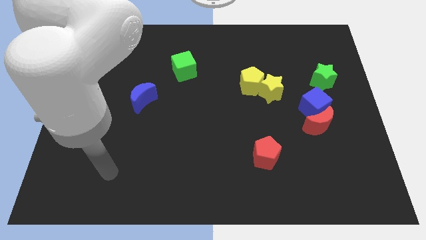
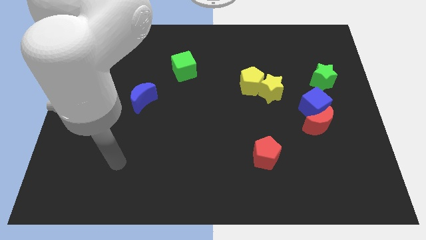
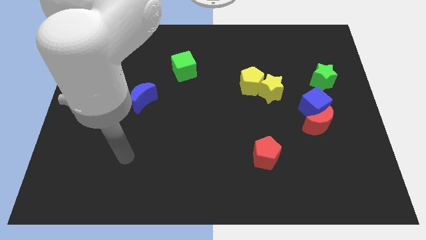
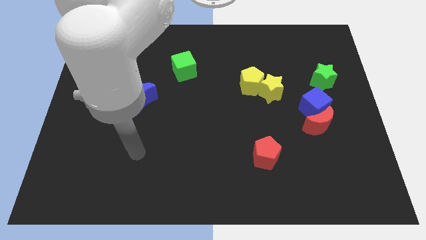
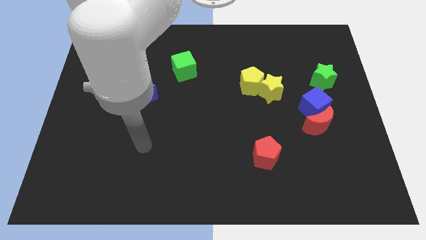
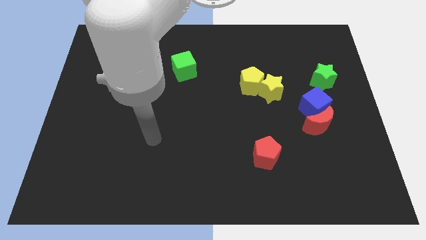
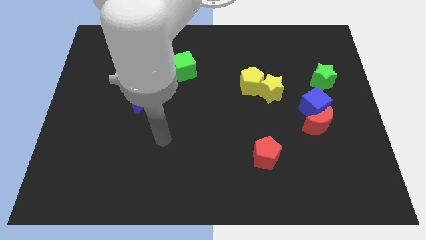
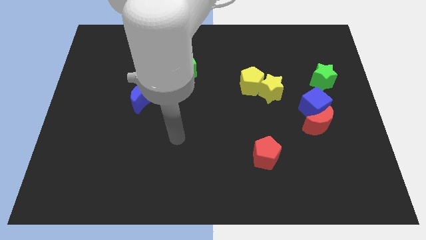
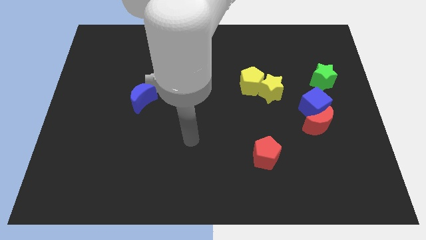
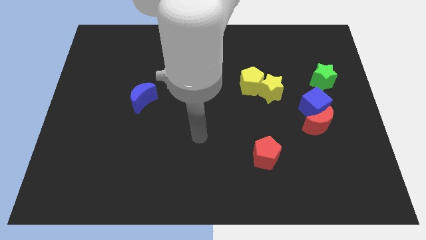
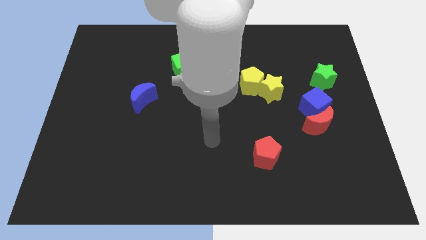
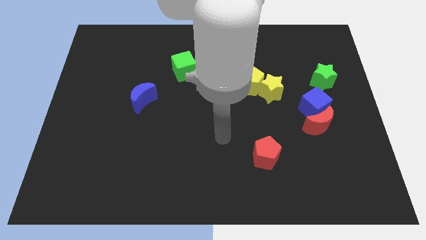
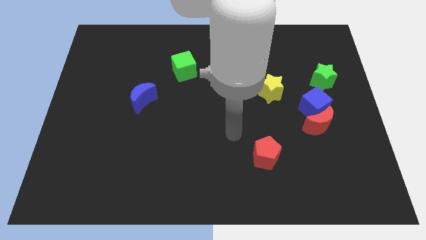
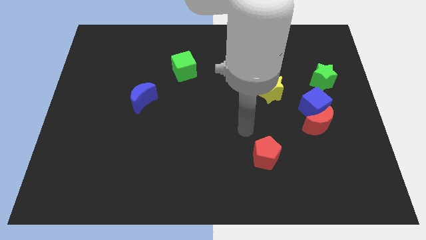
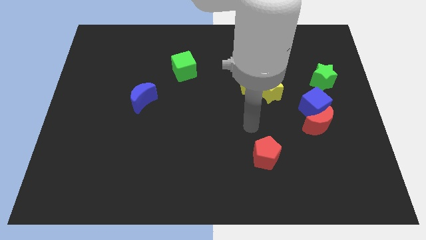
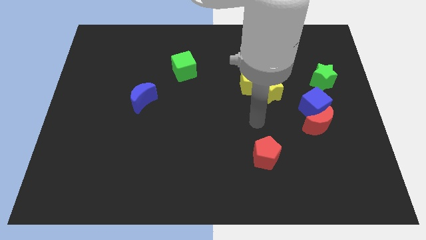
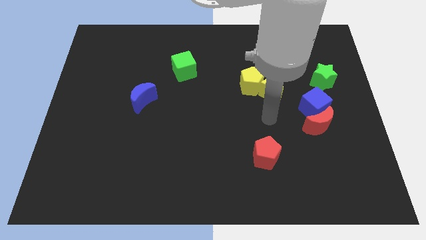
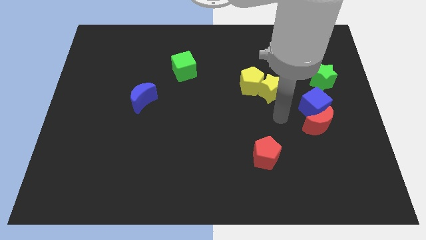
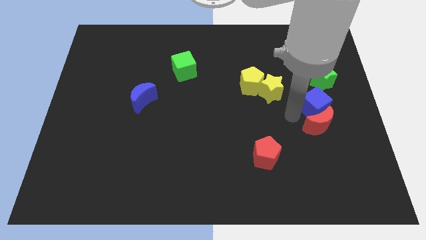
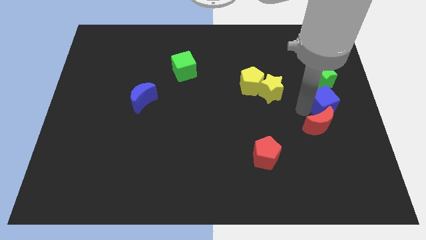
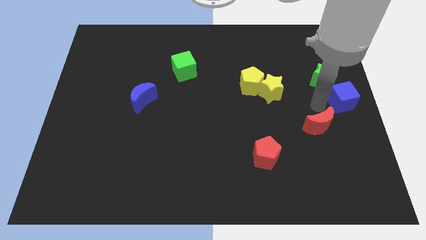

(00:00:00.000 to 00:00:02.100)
pull the red moon apart from the blue cube

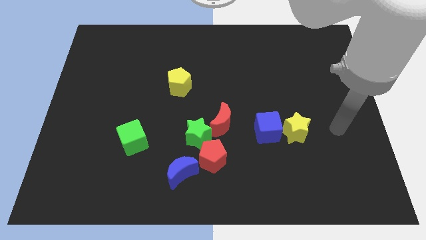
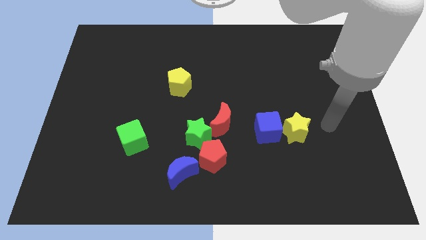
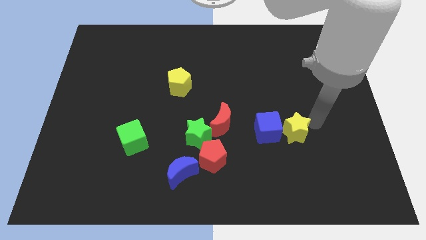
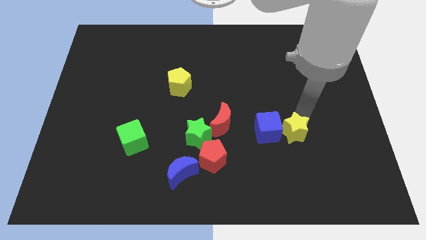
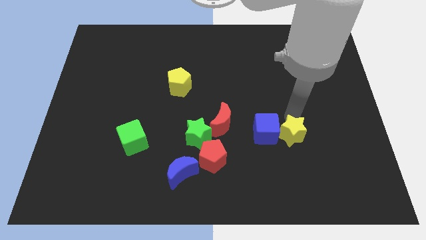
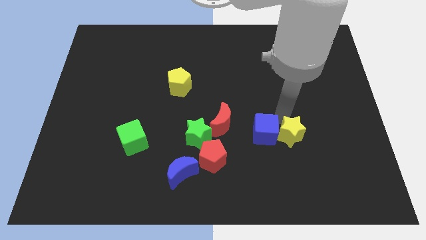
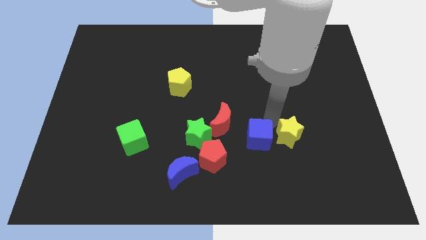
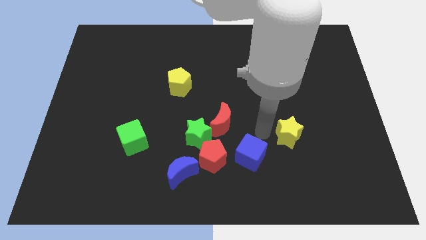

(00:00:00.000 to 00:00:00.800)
pull the yellow star apart from the blue cube

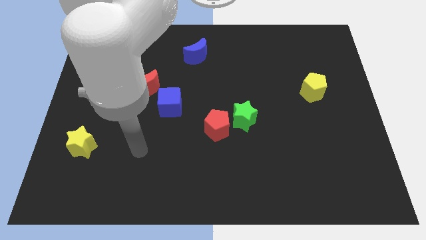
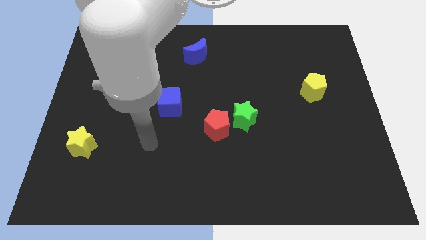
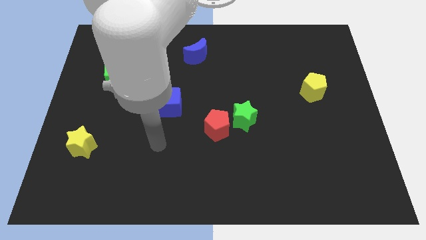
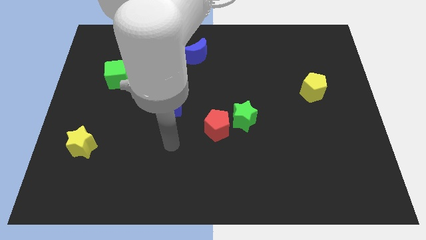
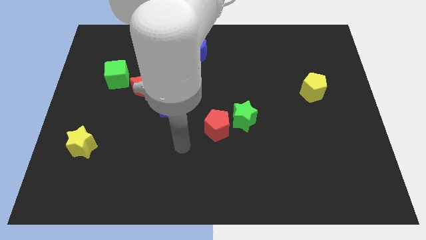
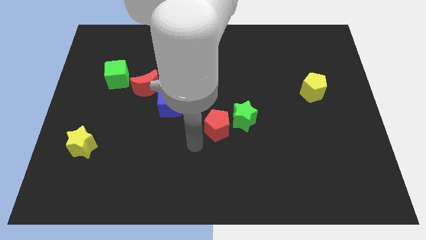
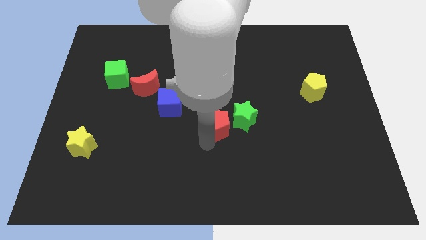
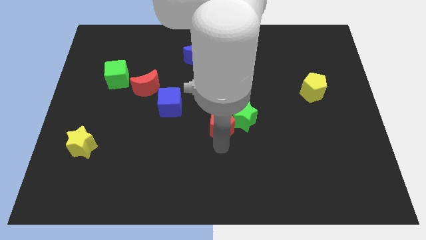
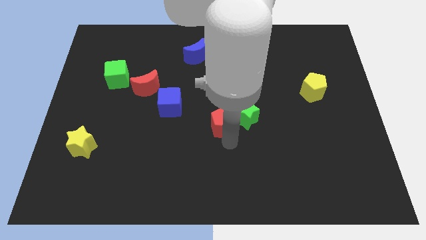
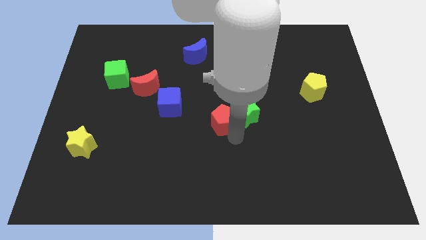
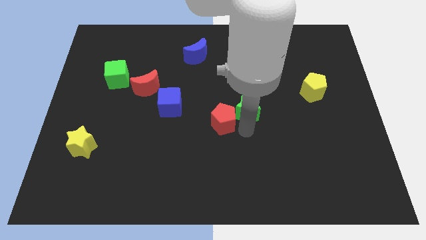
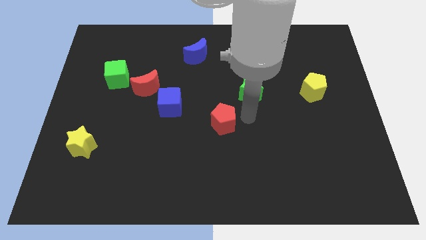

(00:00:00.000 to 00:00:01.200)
pull the red pentagon apart from the green star

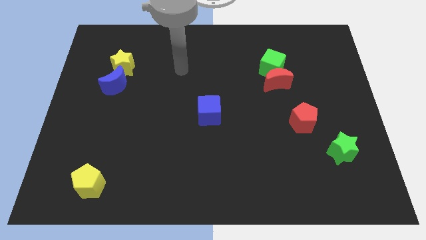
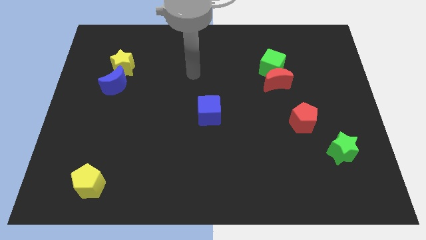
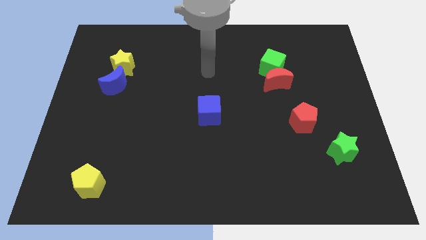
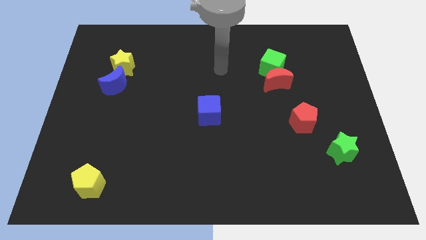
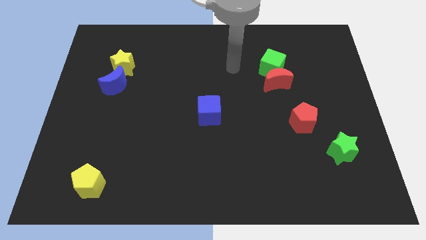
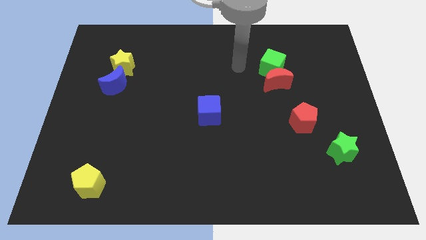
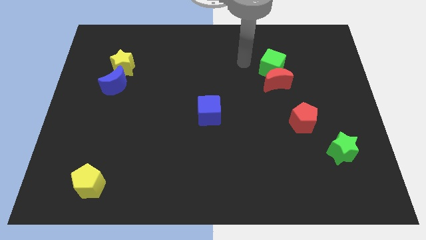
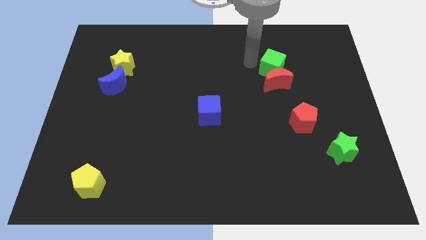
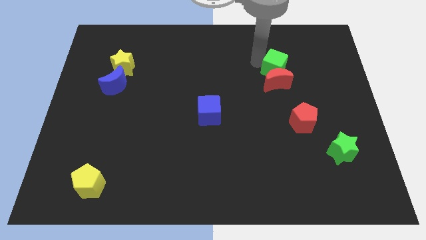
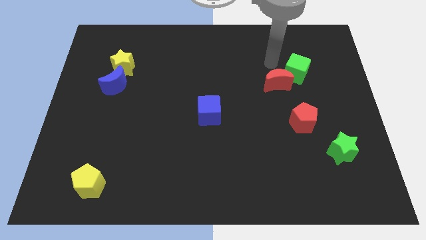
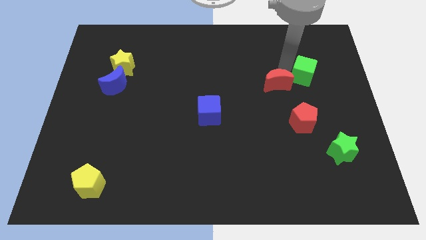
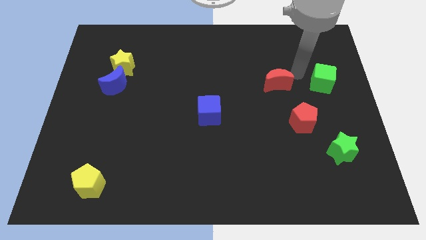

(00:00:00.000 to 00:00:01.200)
pull the red moon apart from the green cube

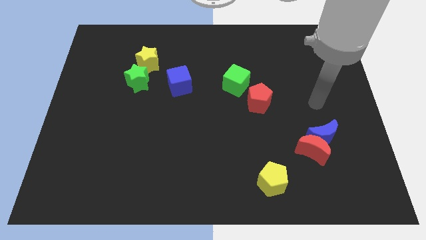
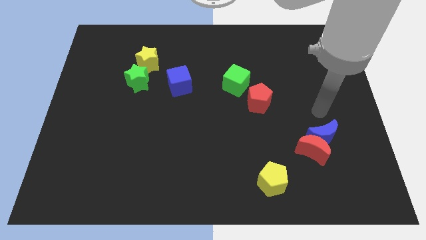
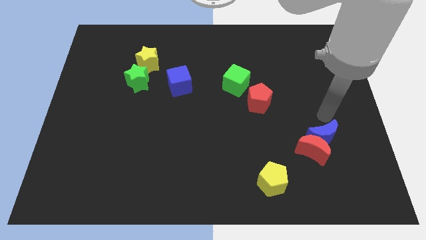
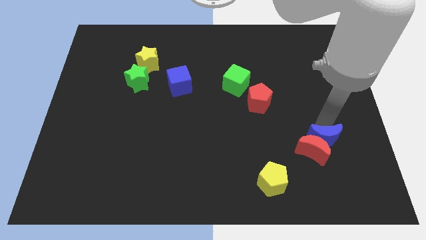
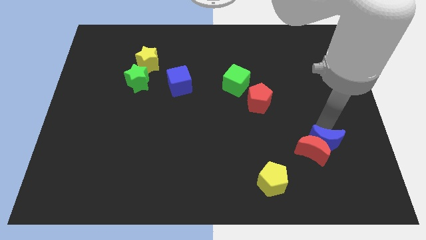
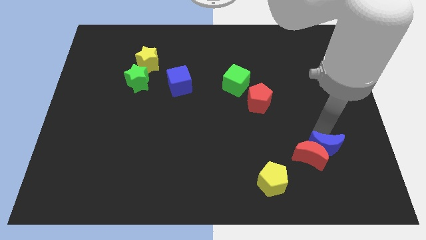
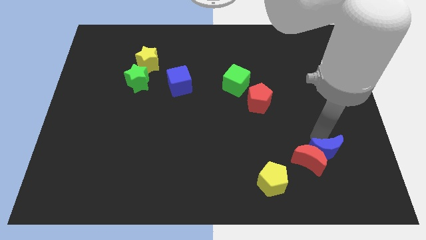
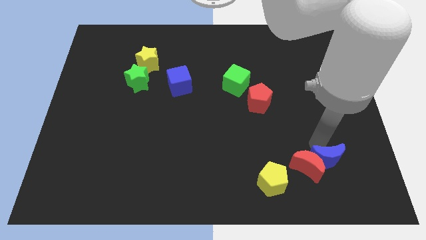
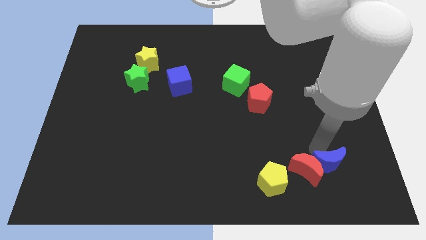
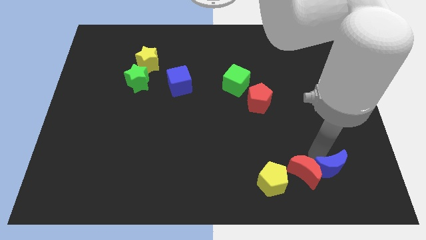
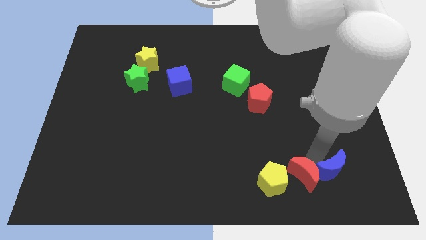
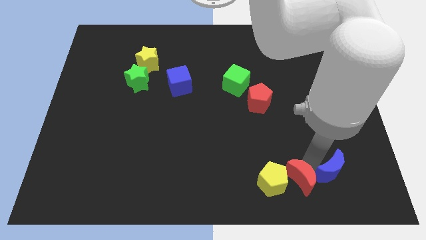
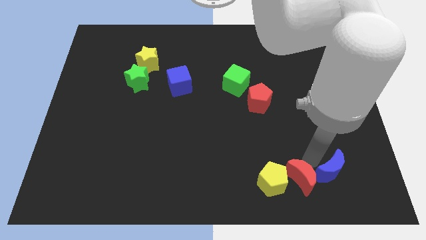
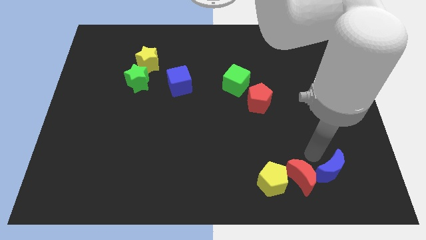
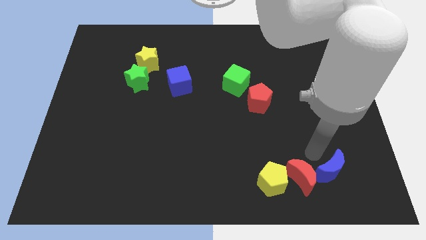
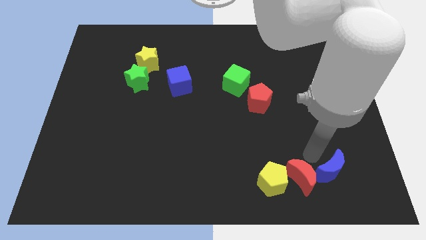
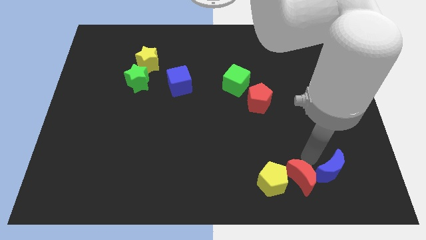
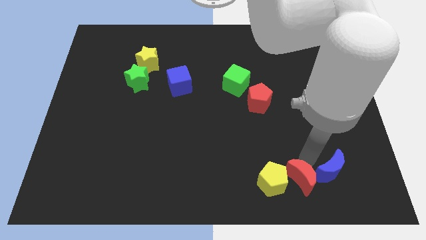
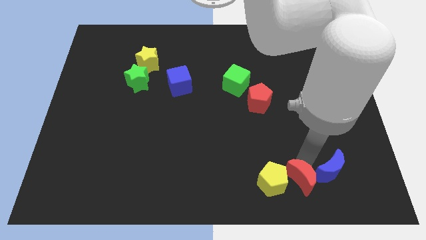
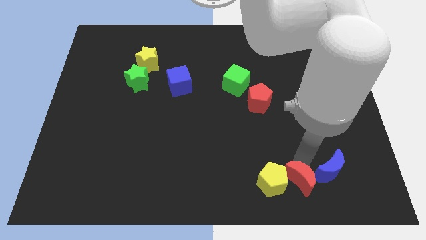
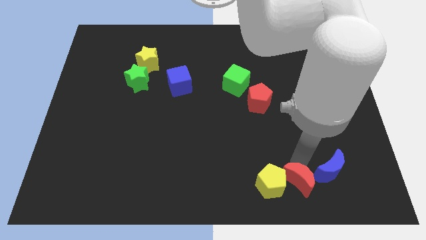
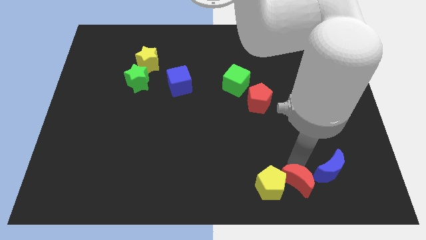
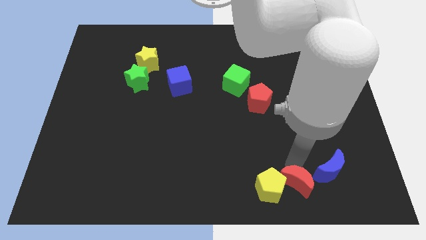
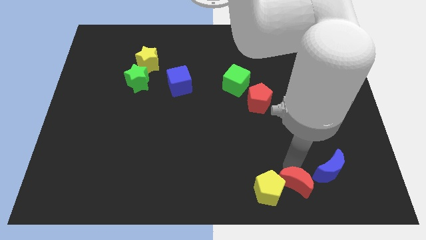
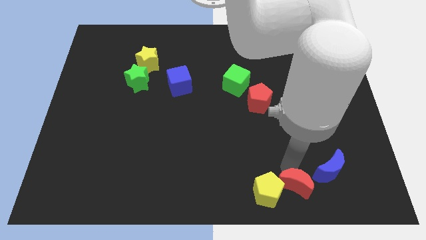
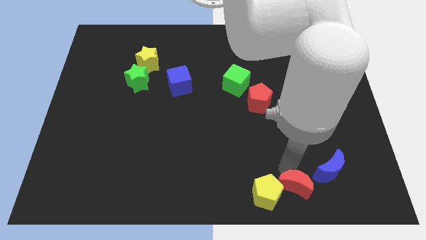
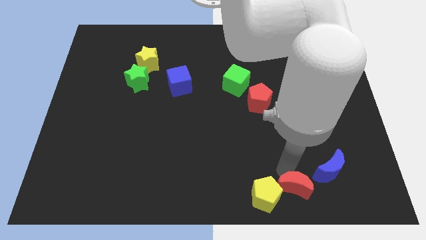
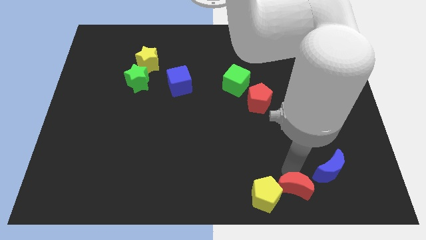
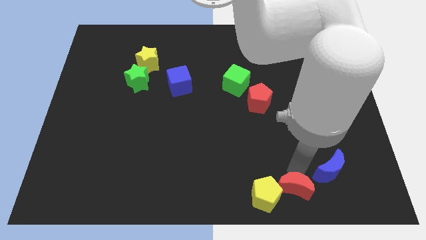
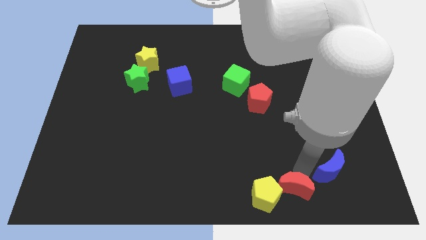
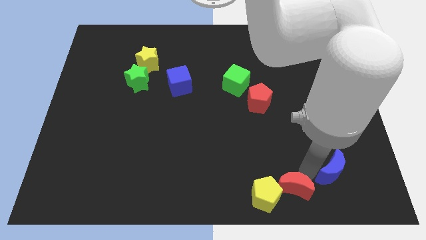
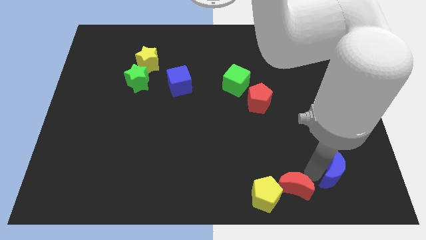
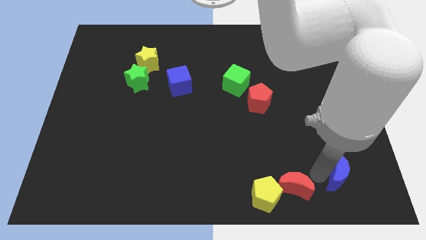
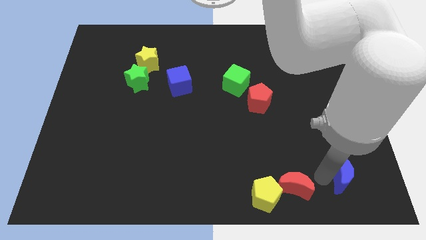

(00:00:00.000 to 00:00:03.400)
separate the red moon from the blue moon

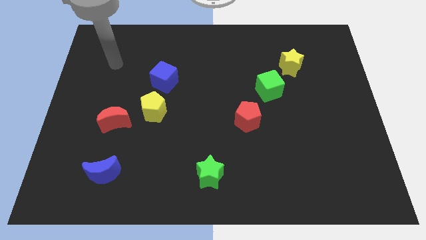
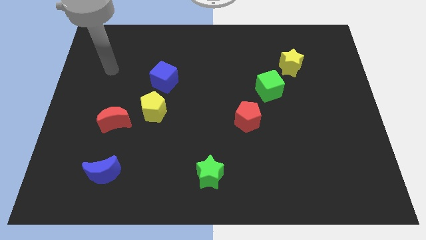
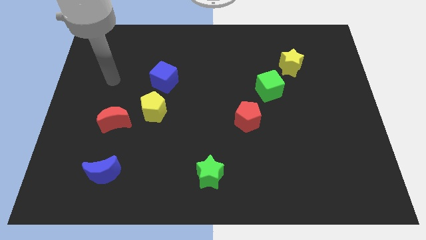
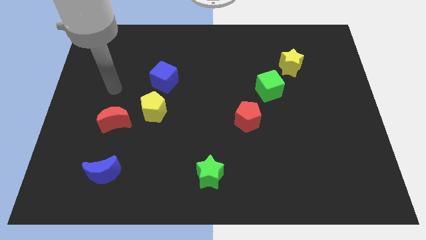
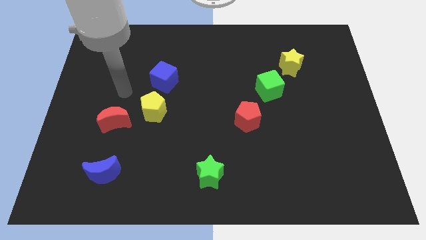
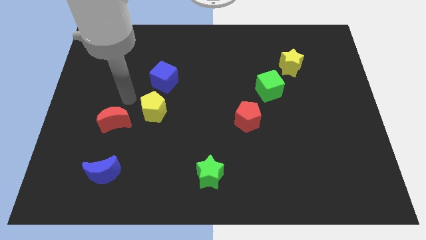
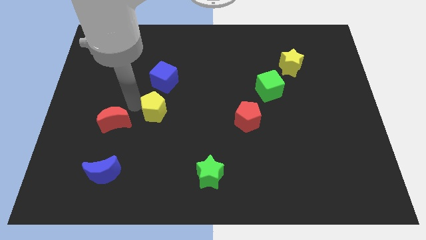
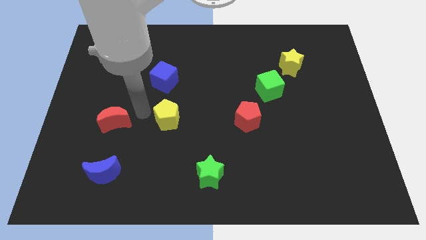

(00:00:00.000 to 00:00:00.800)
separate the red moon from the yellow pentagon
